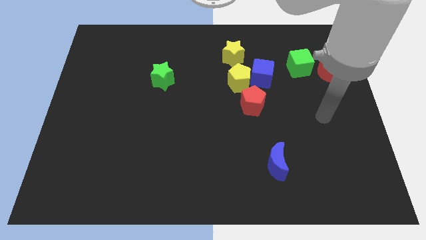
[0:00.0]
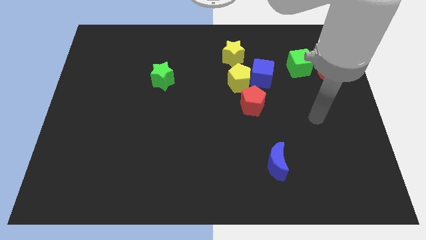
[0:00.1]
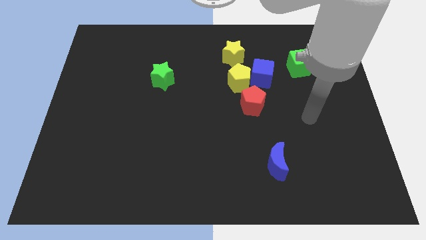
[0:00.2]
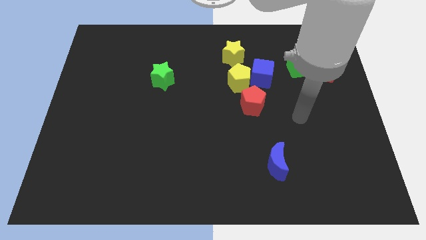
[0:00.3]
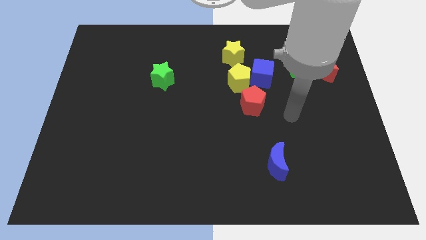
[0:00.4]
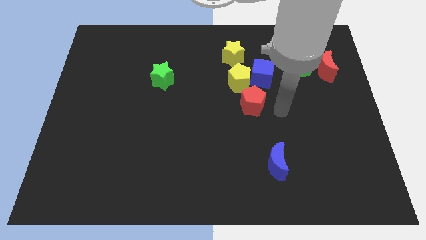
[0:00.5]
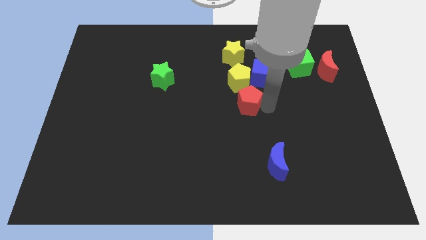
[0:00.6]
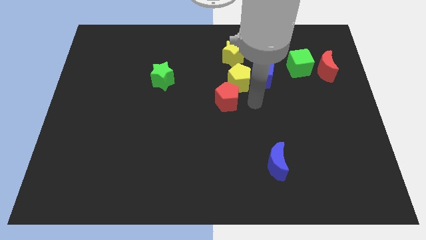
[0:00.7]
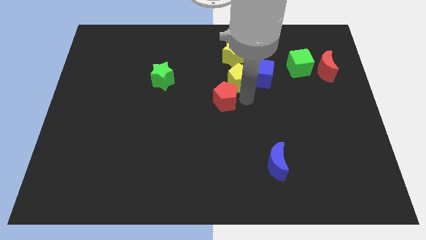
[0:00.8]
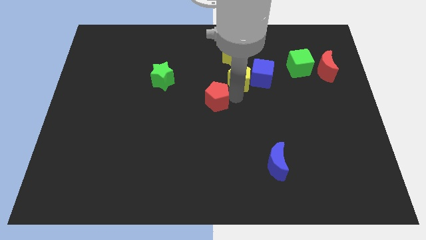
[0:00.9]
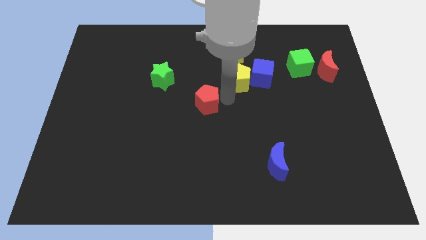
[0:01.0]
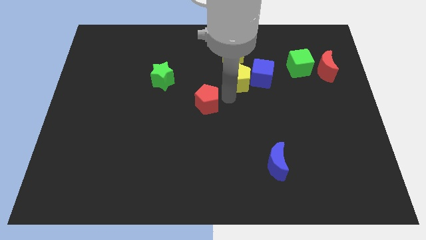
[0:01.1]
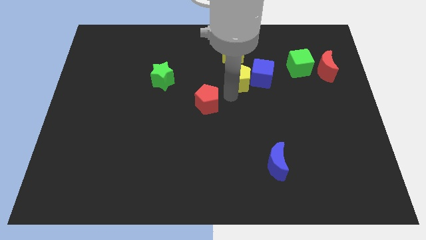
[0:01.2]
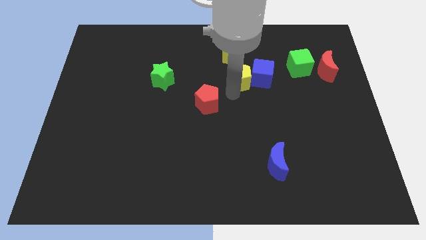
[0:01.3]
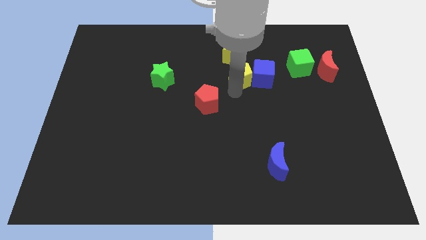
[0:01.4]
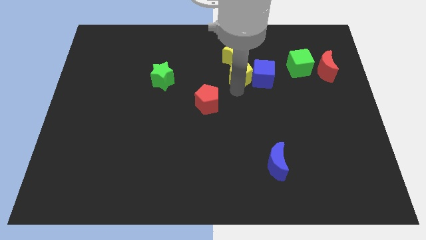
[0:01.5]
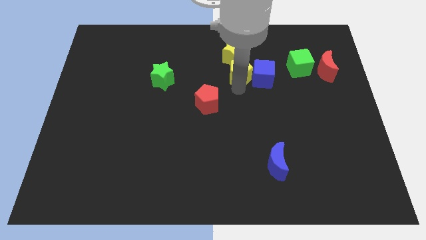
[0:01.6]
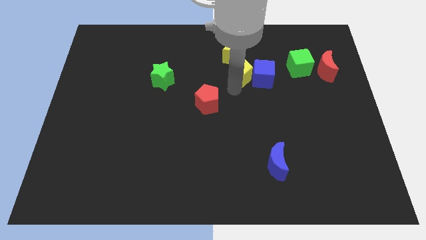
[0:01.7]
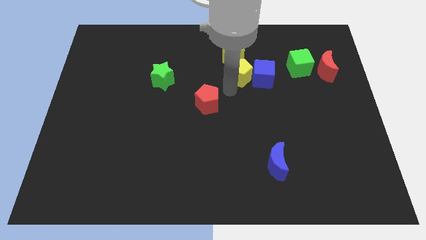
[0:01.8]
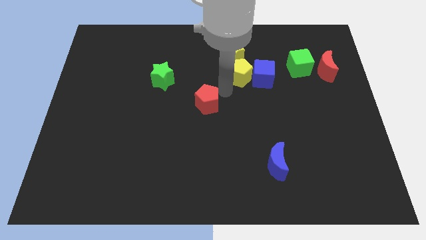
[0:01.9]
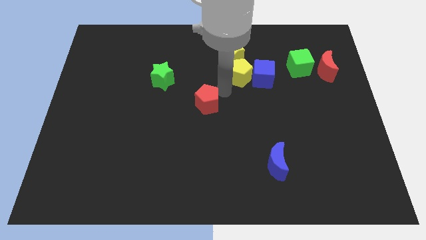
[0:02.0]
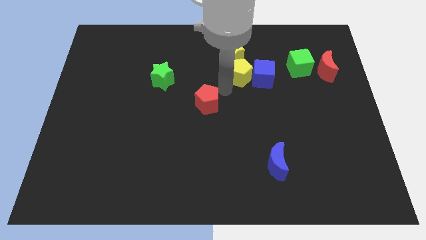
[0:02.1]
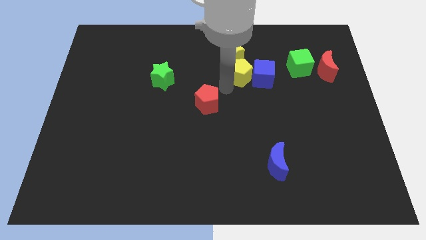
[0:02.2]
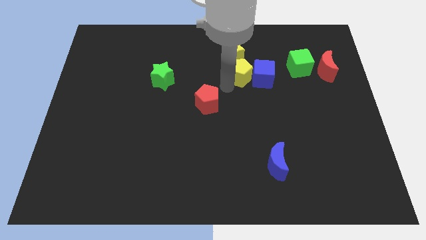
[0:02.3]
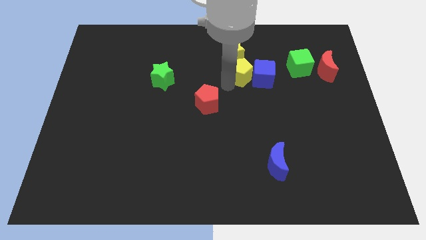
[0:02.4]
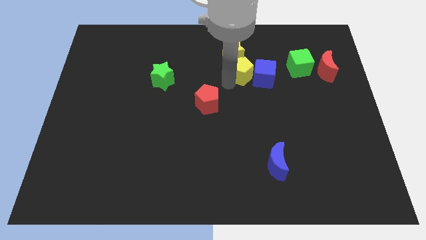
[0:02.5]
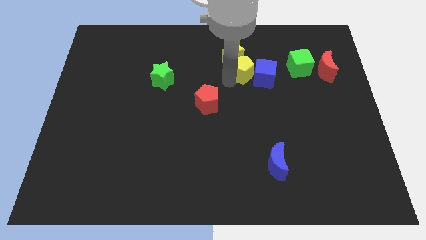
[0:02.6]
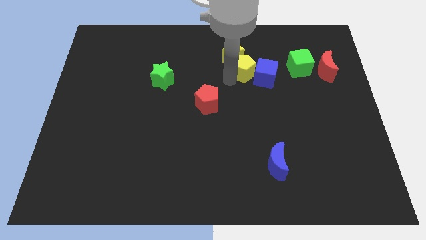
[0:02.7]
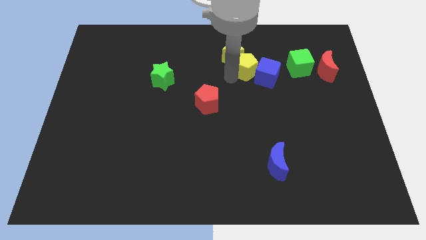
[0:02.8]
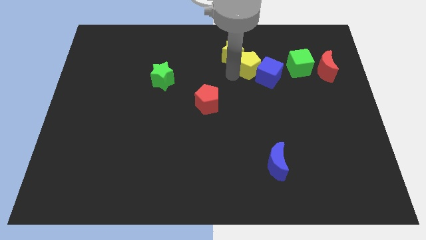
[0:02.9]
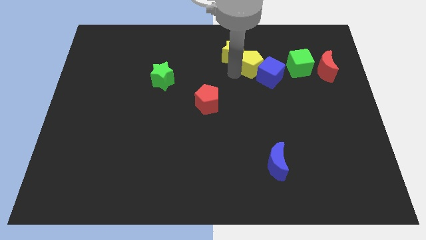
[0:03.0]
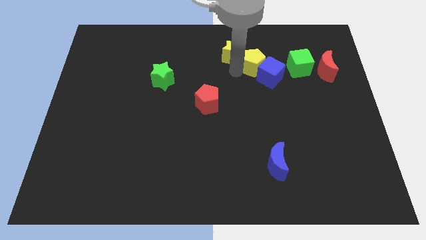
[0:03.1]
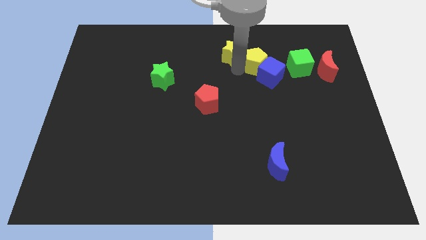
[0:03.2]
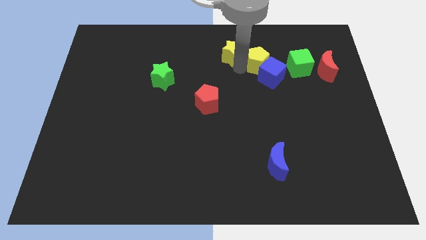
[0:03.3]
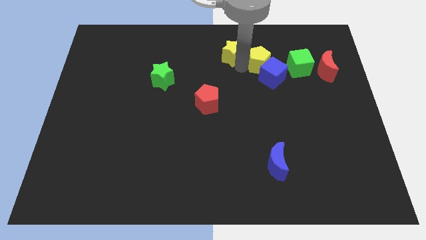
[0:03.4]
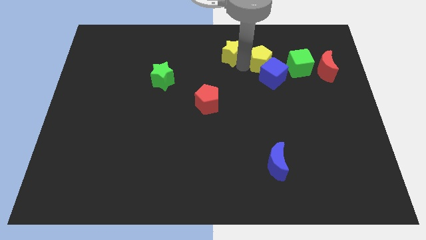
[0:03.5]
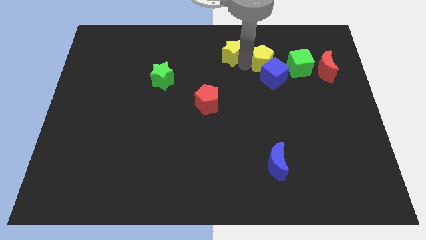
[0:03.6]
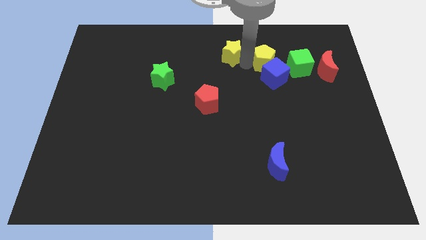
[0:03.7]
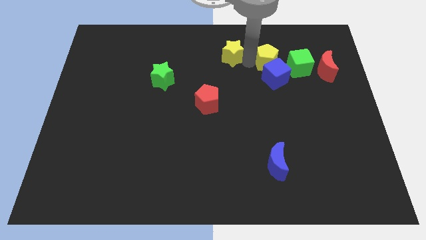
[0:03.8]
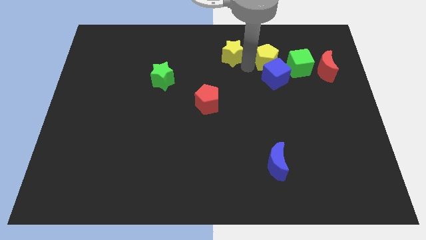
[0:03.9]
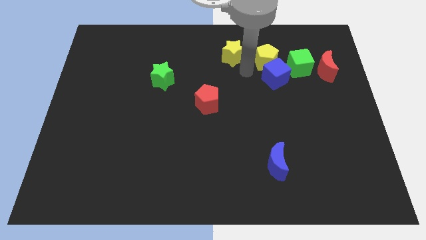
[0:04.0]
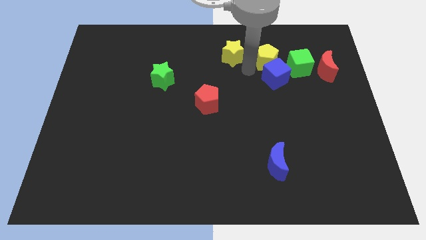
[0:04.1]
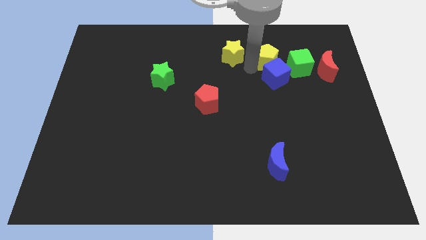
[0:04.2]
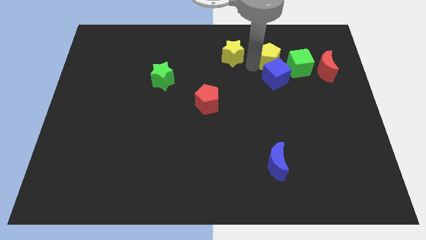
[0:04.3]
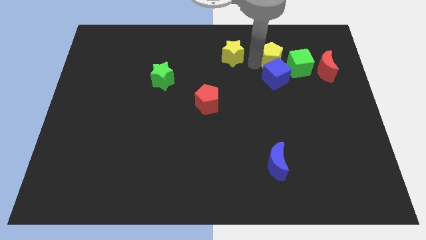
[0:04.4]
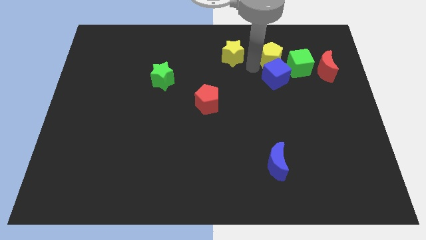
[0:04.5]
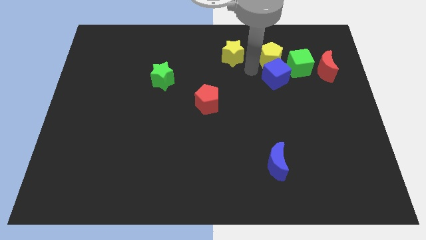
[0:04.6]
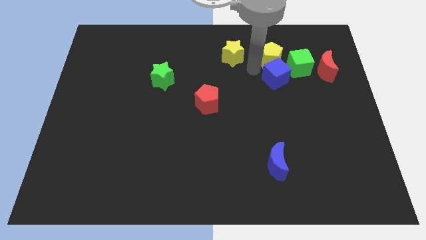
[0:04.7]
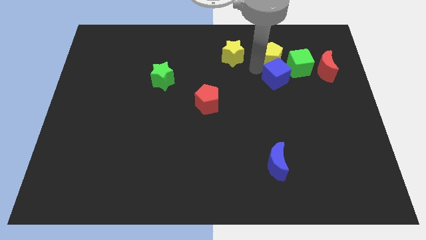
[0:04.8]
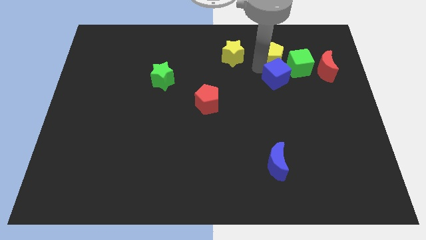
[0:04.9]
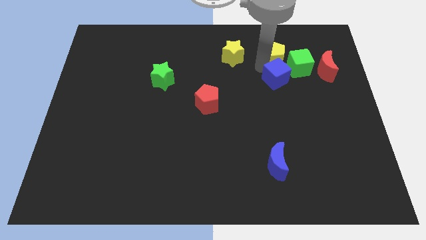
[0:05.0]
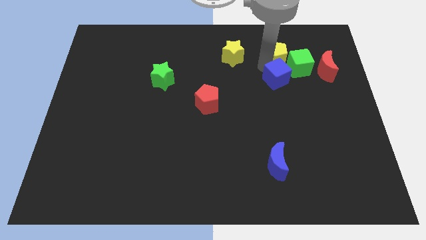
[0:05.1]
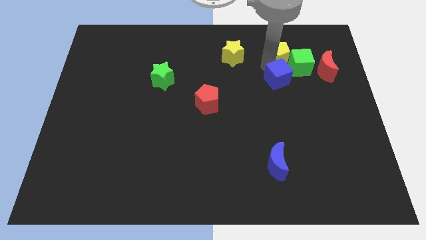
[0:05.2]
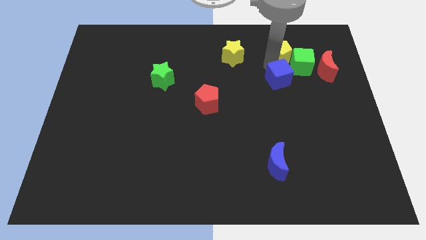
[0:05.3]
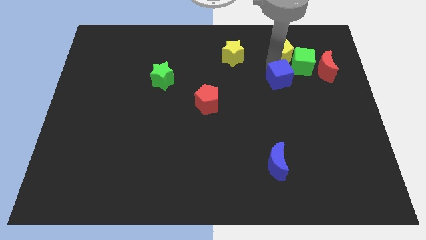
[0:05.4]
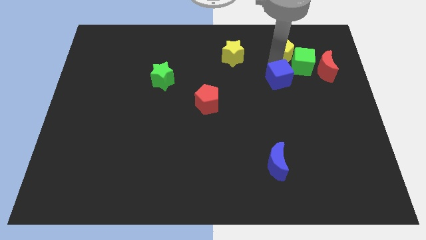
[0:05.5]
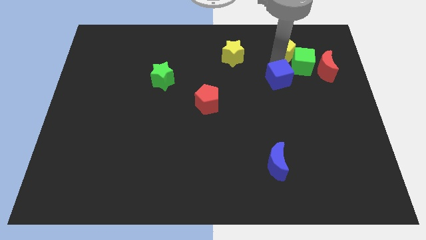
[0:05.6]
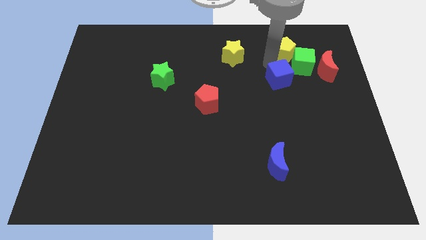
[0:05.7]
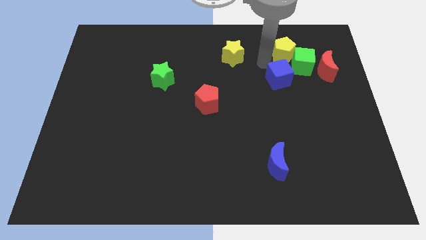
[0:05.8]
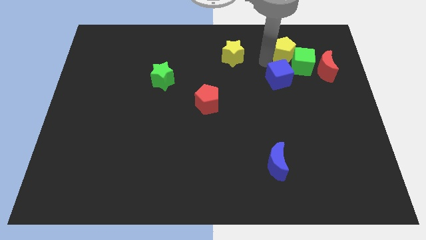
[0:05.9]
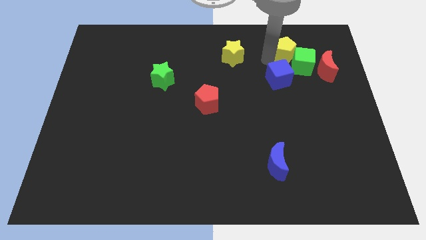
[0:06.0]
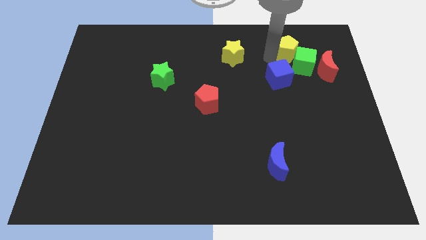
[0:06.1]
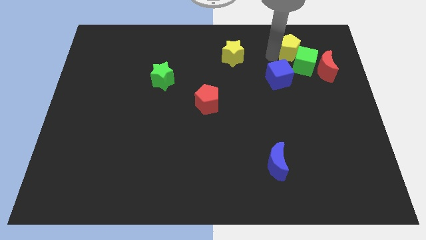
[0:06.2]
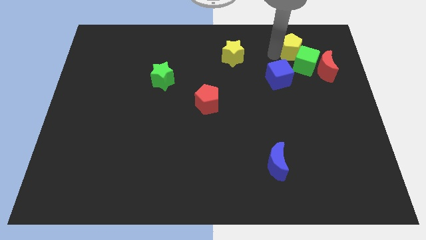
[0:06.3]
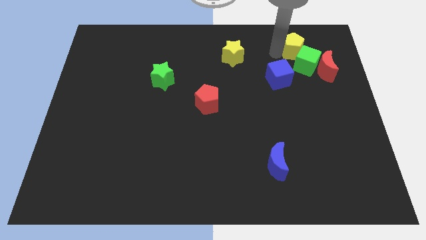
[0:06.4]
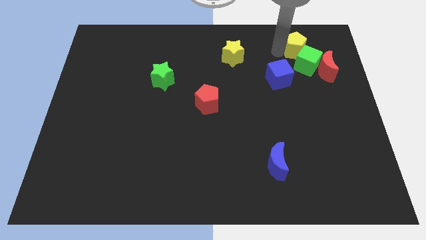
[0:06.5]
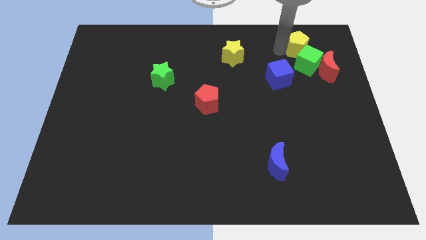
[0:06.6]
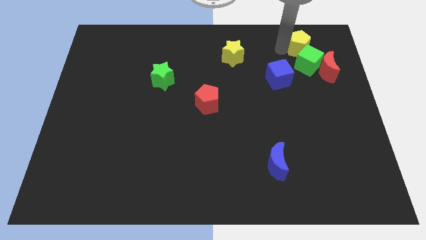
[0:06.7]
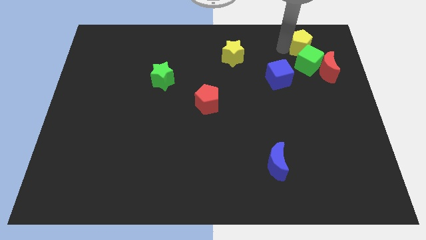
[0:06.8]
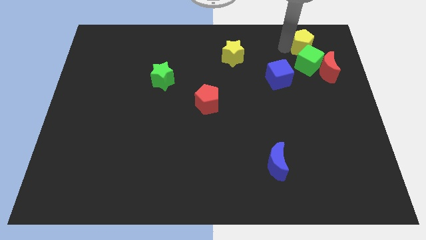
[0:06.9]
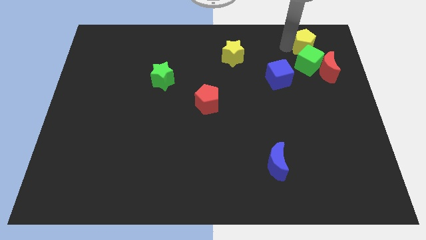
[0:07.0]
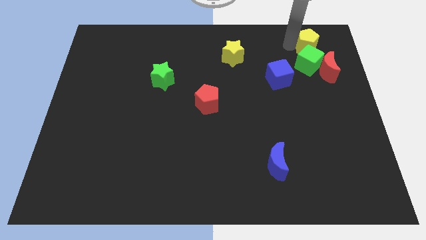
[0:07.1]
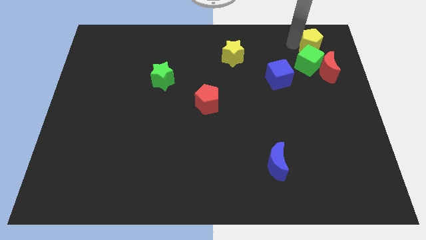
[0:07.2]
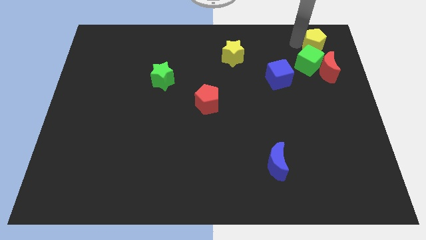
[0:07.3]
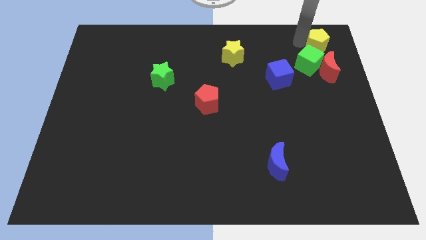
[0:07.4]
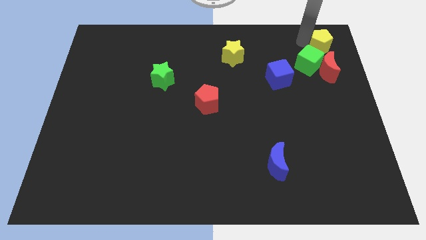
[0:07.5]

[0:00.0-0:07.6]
slide the yellow pentagon to the top right corner
